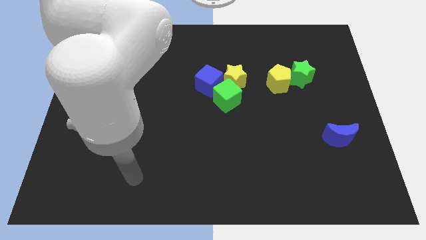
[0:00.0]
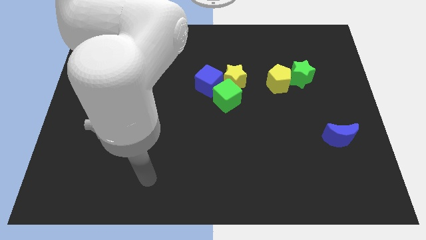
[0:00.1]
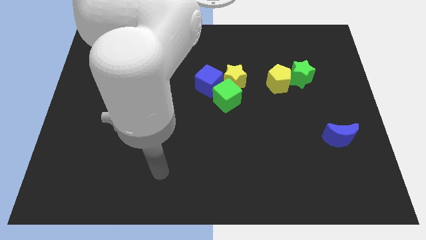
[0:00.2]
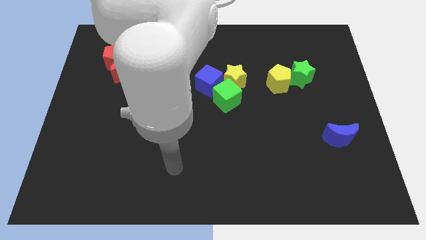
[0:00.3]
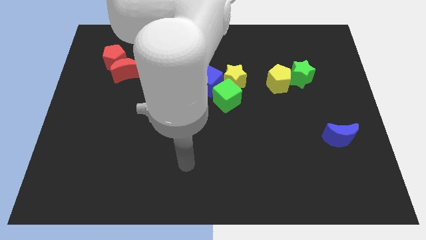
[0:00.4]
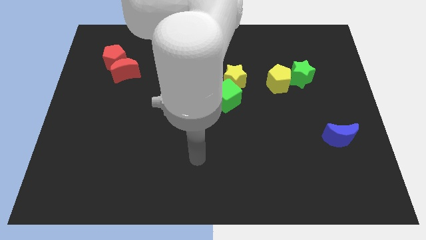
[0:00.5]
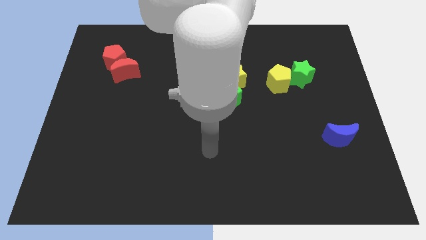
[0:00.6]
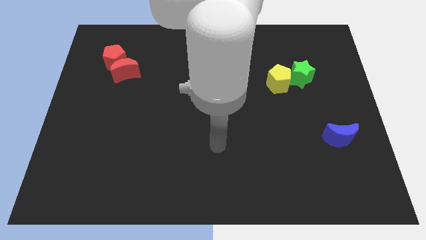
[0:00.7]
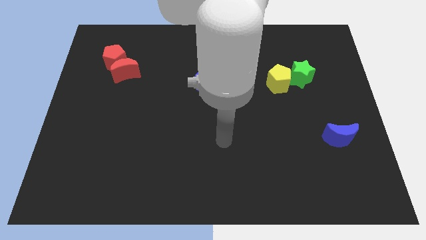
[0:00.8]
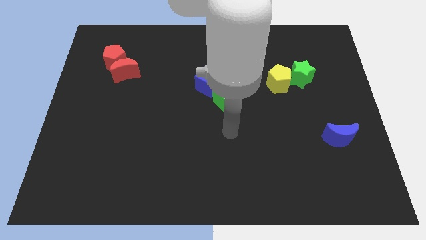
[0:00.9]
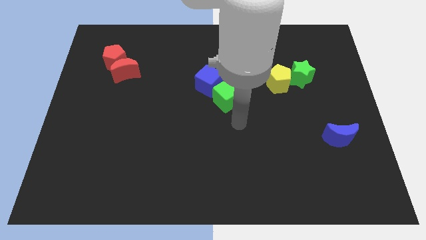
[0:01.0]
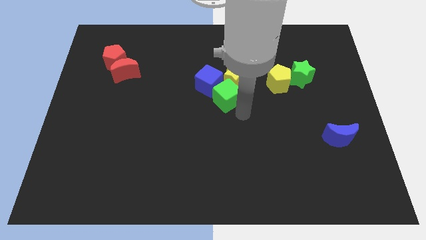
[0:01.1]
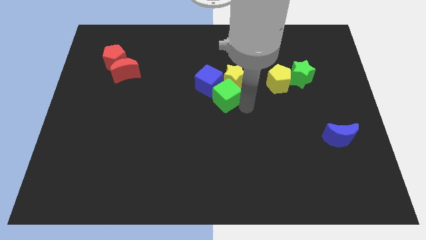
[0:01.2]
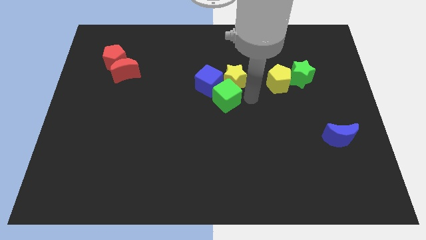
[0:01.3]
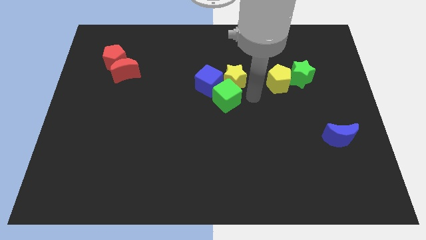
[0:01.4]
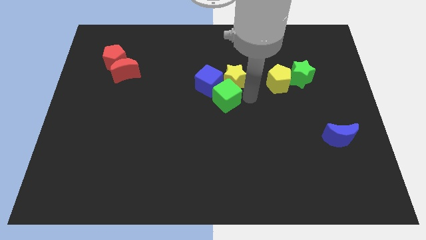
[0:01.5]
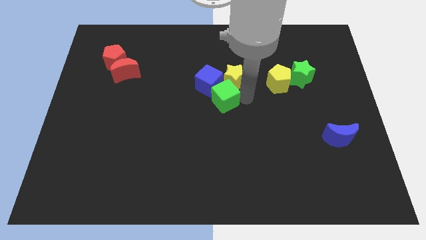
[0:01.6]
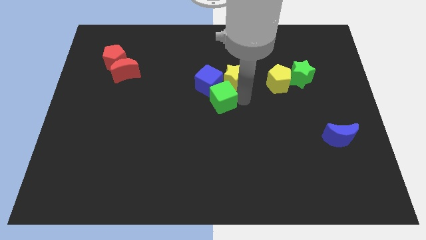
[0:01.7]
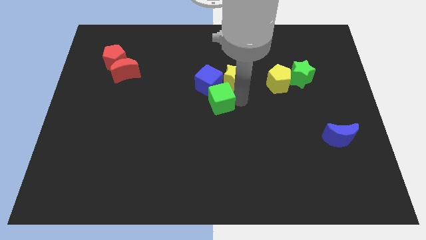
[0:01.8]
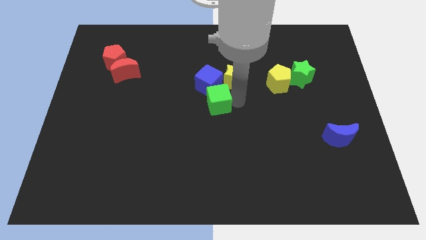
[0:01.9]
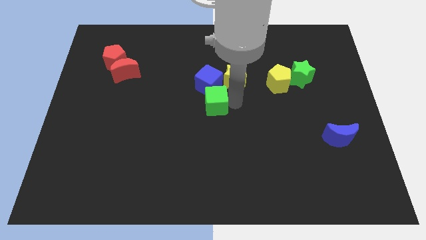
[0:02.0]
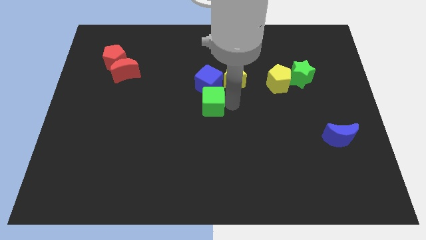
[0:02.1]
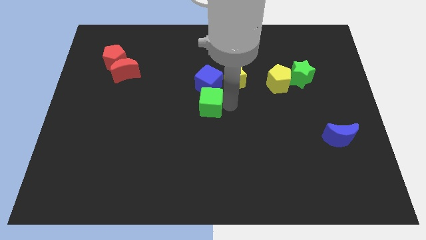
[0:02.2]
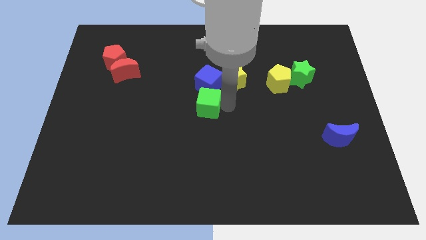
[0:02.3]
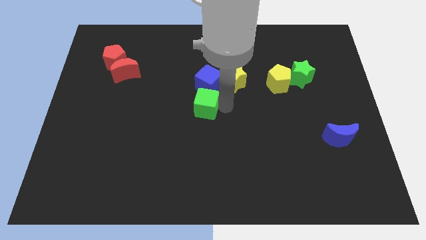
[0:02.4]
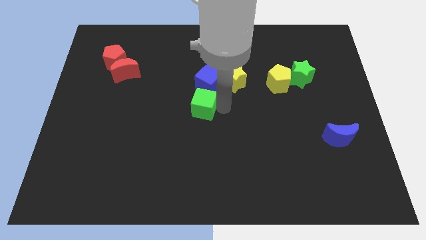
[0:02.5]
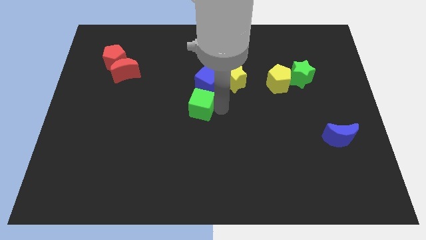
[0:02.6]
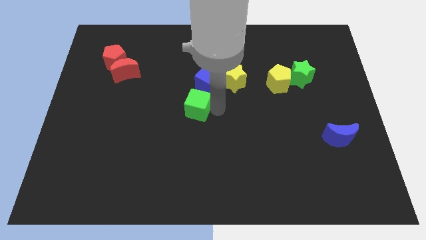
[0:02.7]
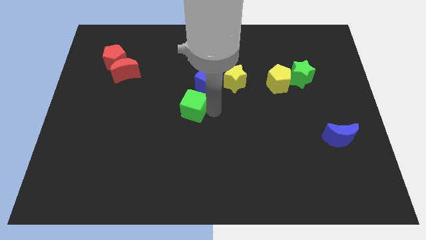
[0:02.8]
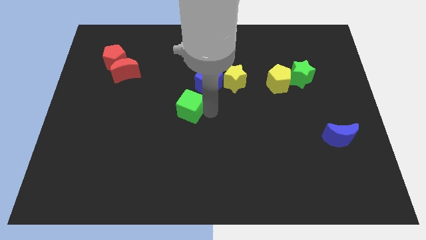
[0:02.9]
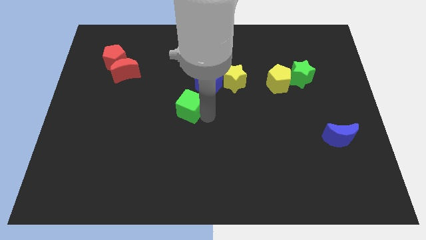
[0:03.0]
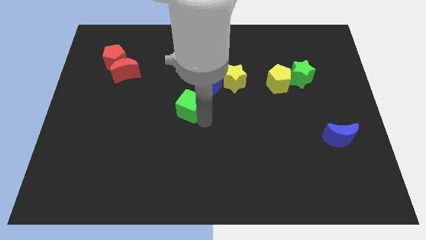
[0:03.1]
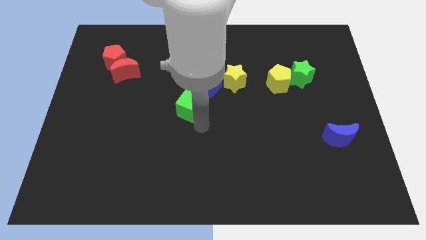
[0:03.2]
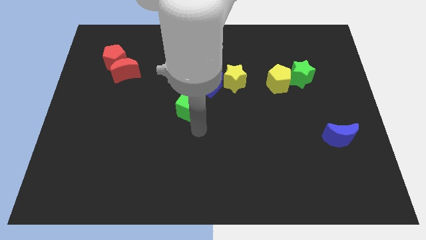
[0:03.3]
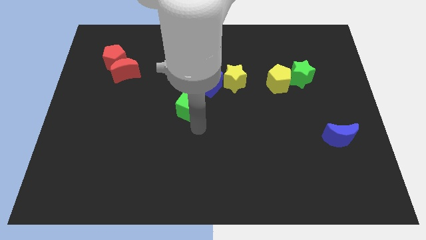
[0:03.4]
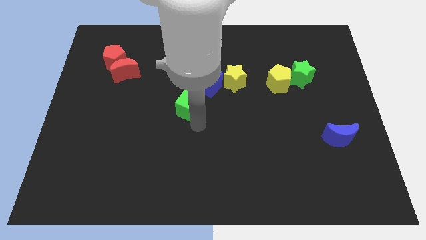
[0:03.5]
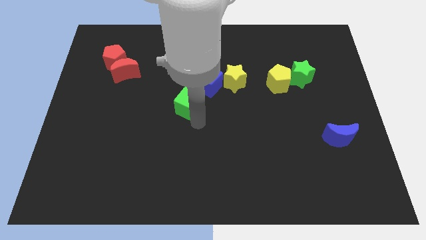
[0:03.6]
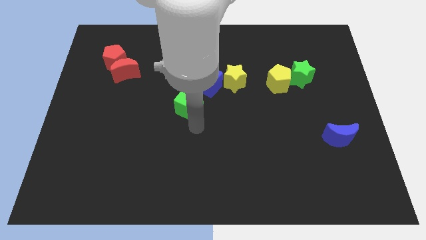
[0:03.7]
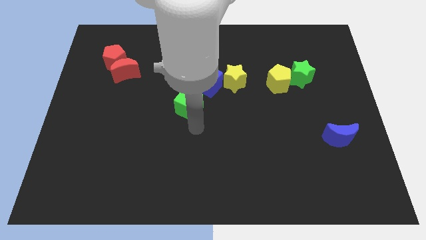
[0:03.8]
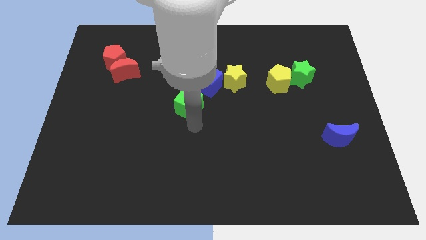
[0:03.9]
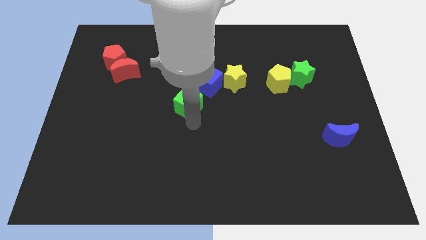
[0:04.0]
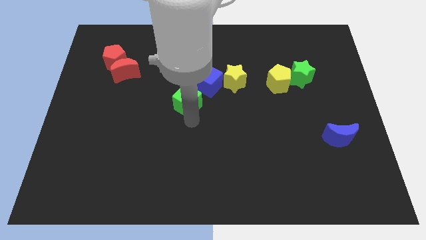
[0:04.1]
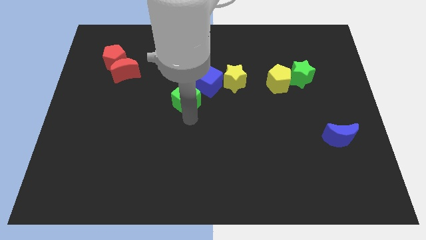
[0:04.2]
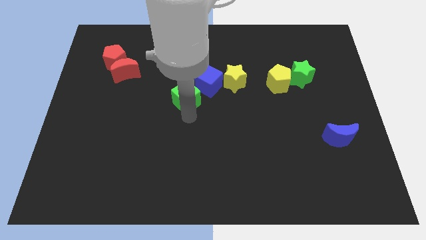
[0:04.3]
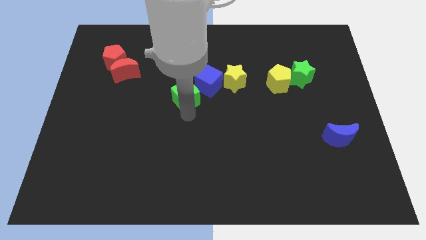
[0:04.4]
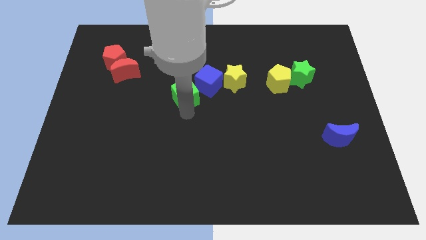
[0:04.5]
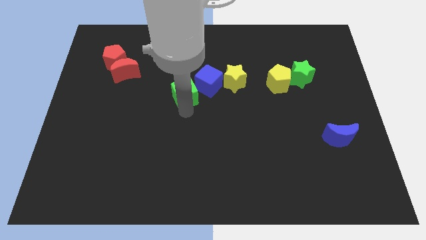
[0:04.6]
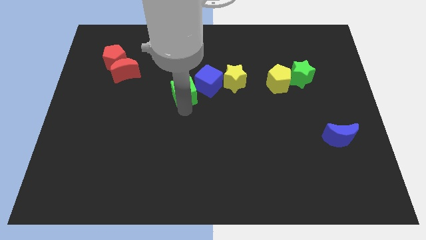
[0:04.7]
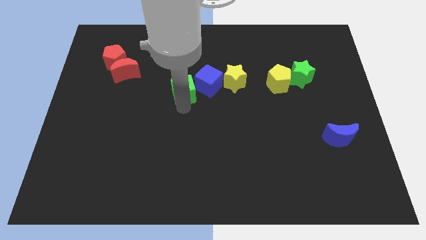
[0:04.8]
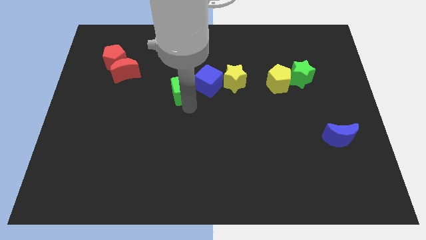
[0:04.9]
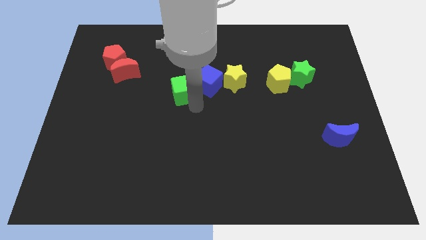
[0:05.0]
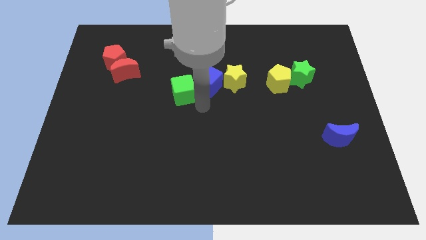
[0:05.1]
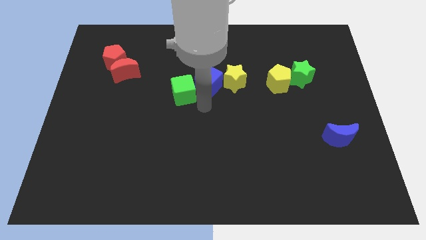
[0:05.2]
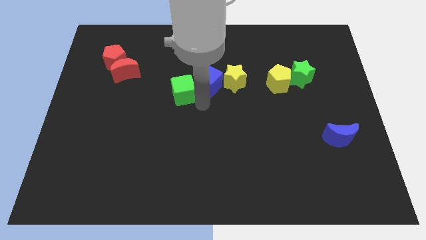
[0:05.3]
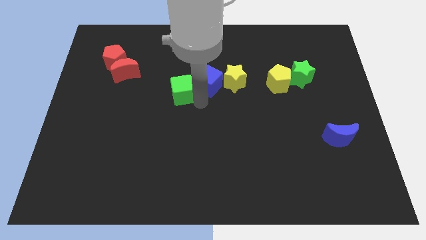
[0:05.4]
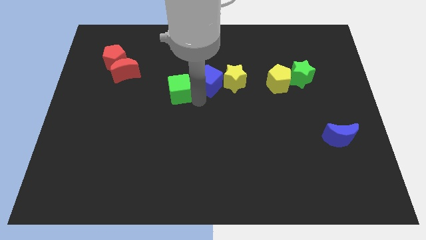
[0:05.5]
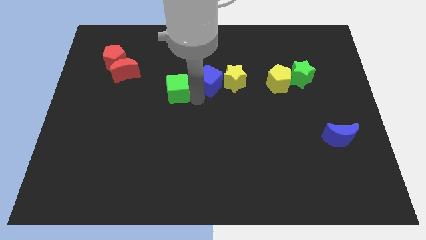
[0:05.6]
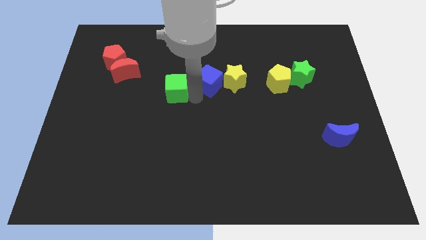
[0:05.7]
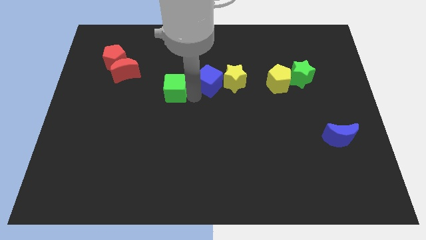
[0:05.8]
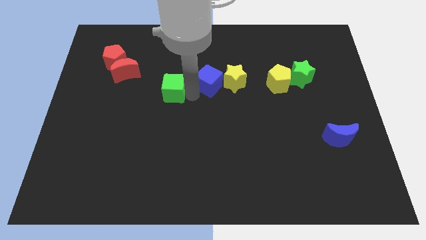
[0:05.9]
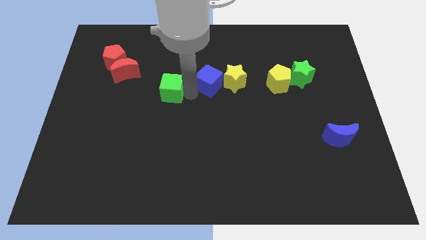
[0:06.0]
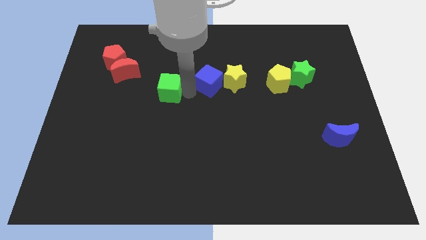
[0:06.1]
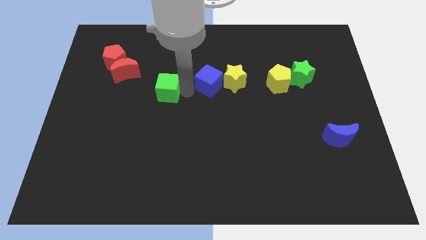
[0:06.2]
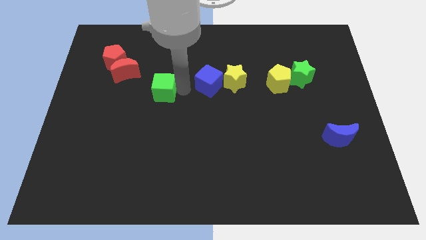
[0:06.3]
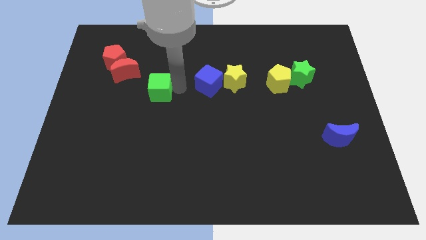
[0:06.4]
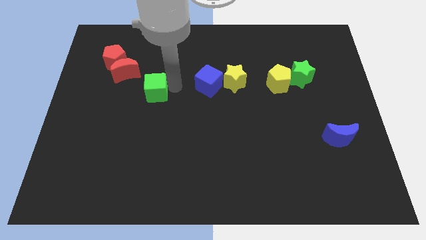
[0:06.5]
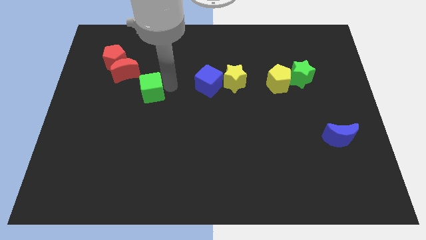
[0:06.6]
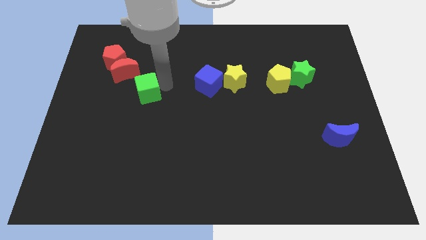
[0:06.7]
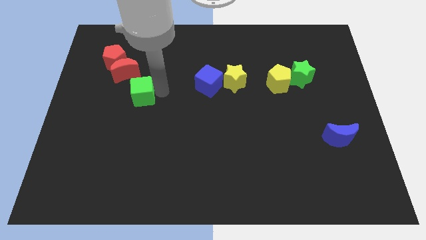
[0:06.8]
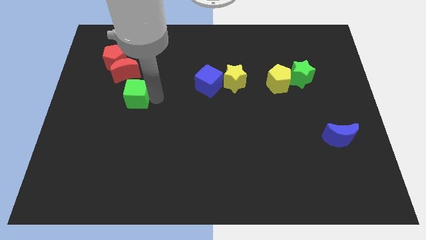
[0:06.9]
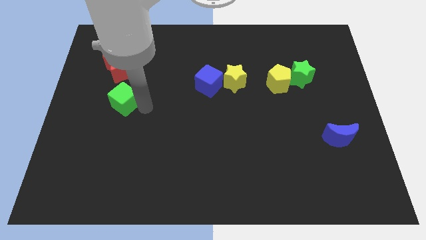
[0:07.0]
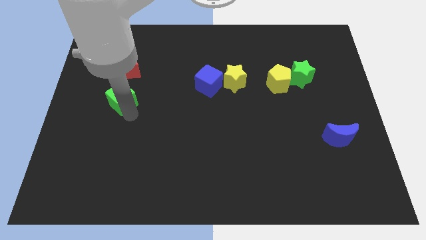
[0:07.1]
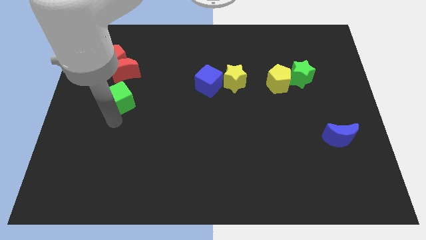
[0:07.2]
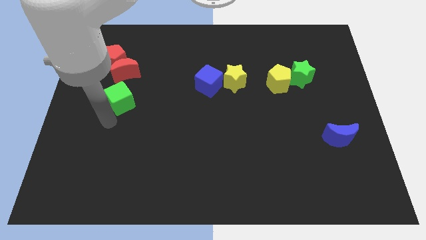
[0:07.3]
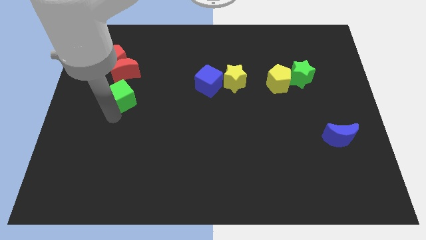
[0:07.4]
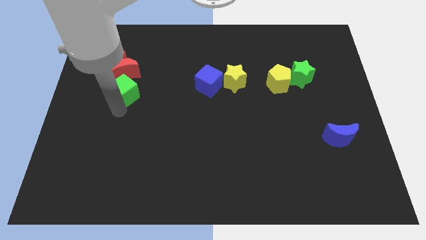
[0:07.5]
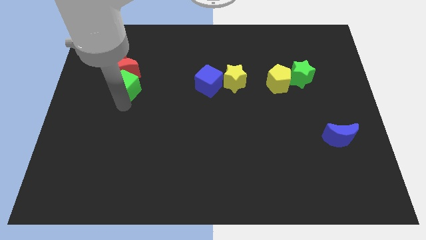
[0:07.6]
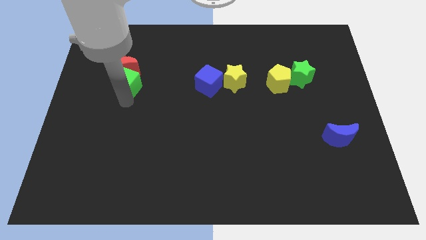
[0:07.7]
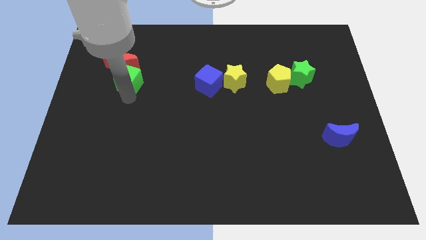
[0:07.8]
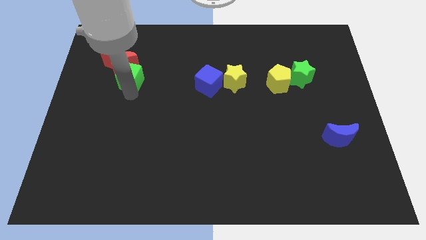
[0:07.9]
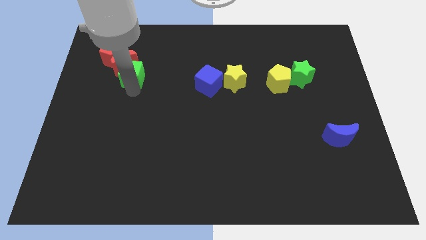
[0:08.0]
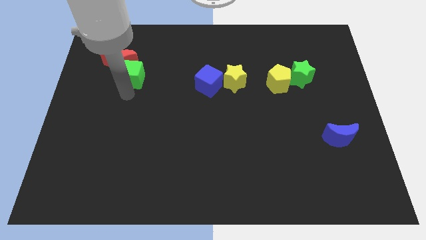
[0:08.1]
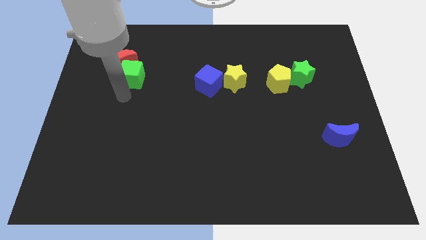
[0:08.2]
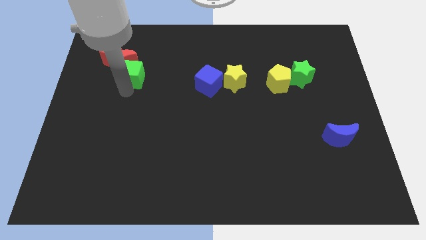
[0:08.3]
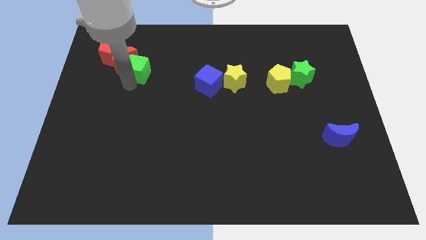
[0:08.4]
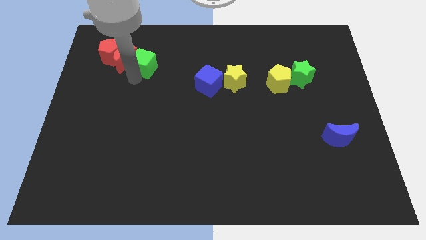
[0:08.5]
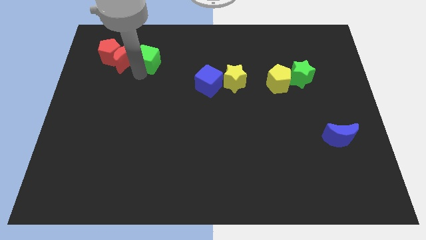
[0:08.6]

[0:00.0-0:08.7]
push the green cube to the top right side of the red moon
